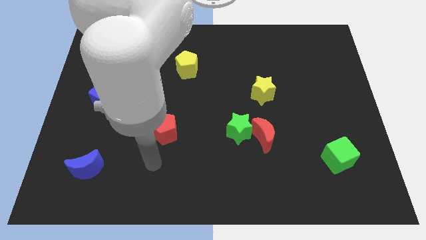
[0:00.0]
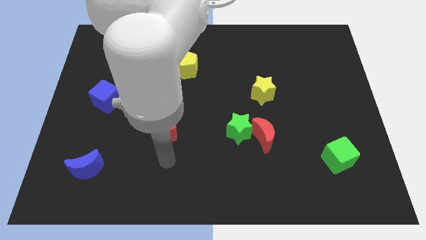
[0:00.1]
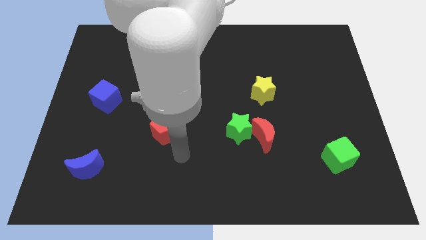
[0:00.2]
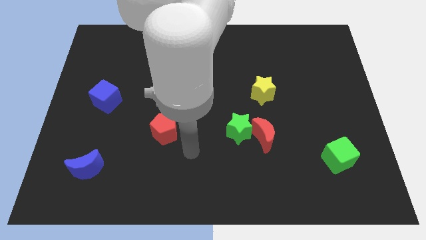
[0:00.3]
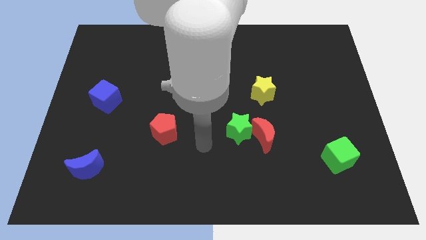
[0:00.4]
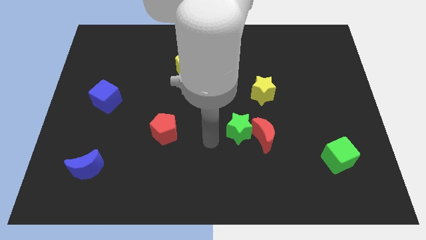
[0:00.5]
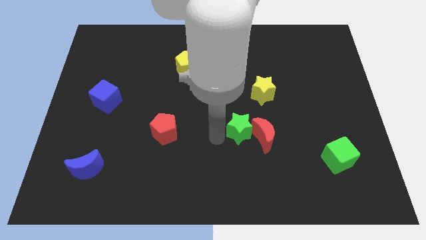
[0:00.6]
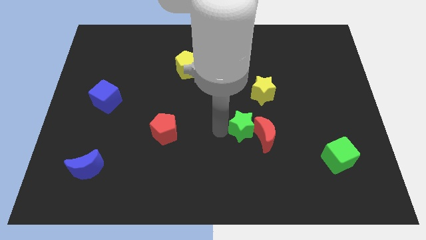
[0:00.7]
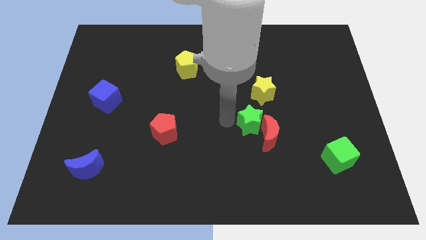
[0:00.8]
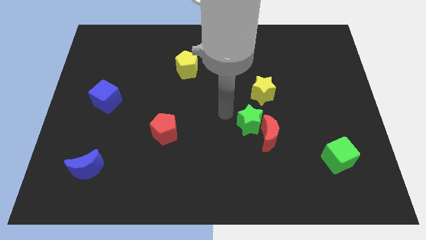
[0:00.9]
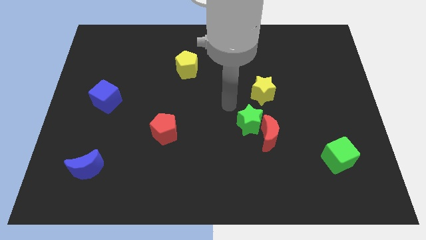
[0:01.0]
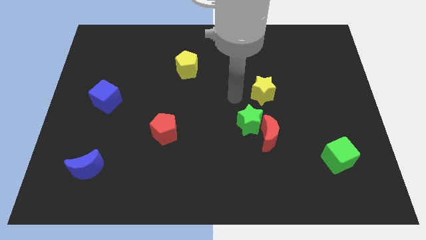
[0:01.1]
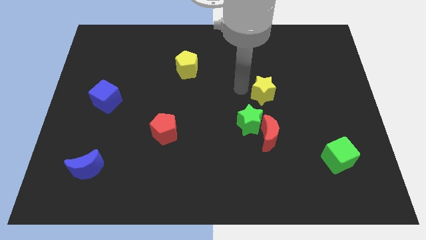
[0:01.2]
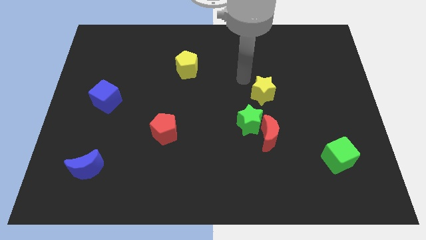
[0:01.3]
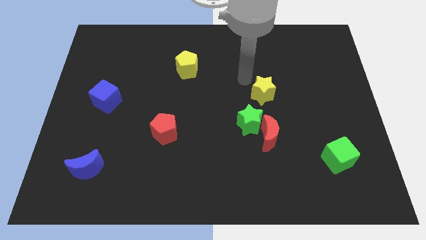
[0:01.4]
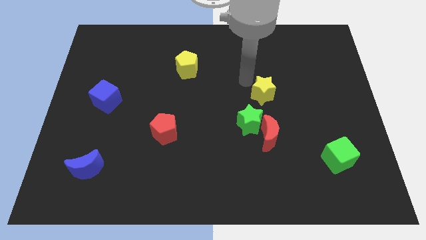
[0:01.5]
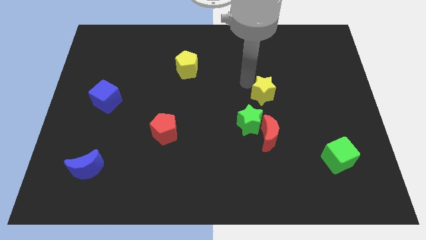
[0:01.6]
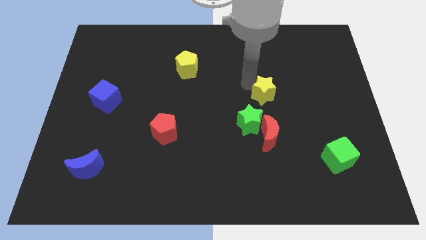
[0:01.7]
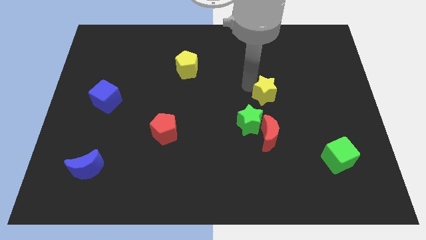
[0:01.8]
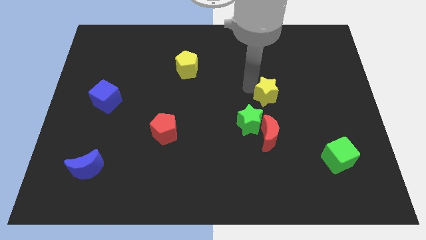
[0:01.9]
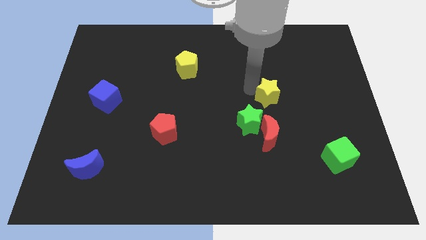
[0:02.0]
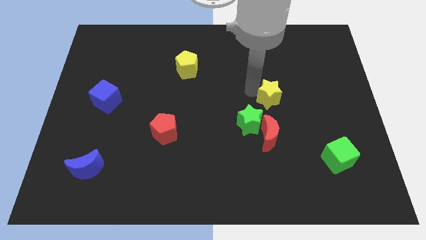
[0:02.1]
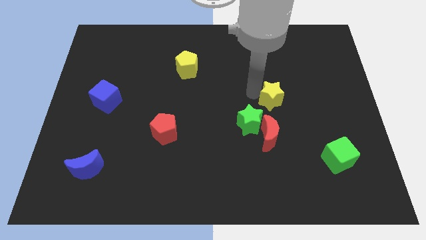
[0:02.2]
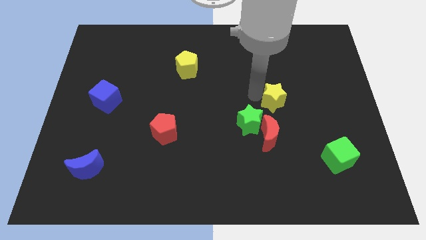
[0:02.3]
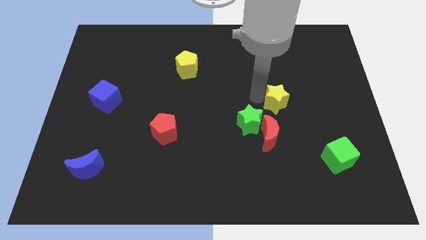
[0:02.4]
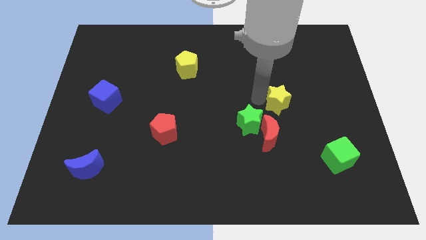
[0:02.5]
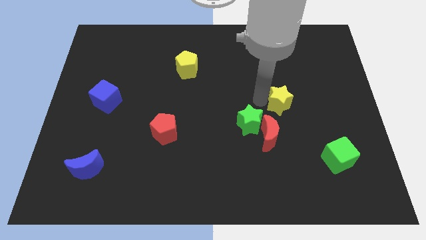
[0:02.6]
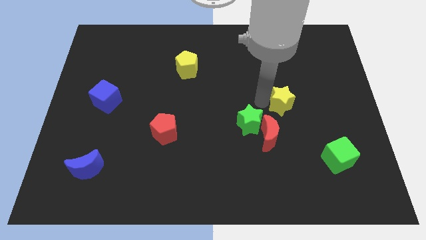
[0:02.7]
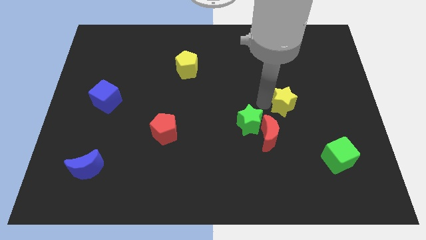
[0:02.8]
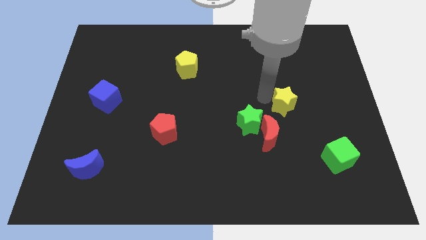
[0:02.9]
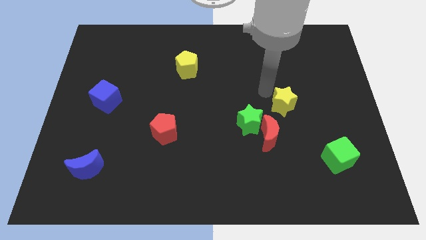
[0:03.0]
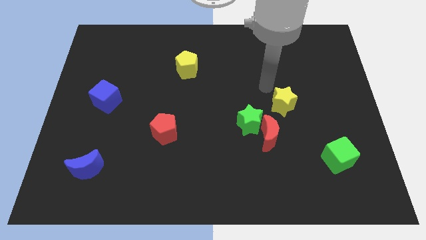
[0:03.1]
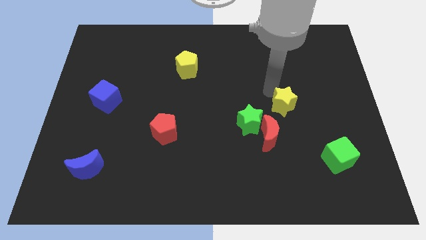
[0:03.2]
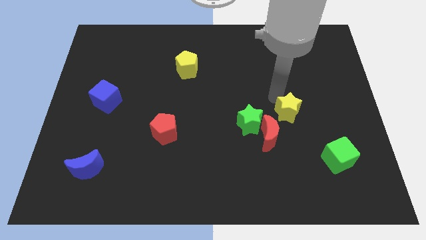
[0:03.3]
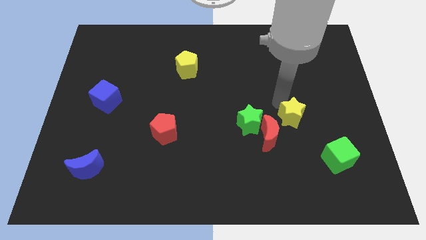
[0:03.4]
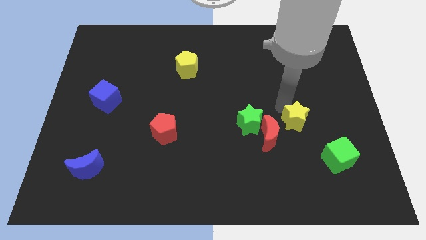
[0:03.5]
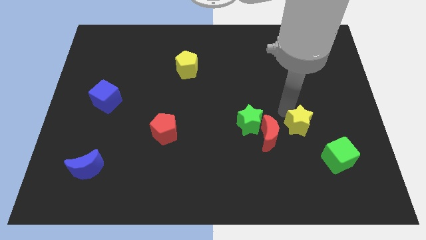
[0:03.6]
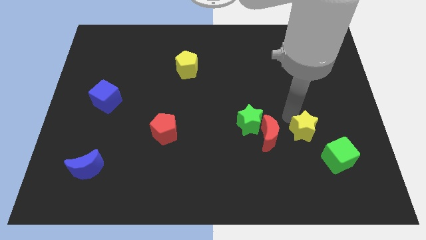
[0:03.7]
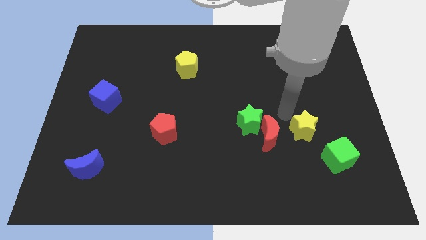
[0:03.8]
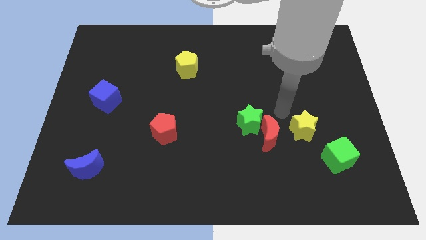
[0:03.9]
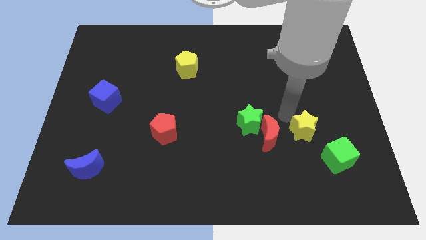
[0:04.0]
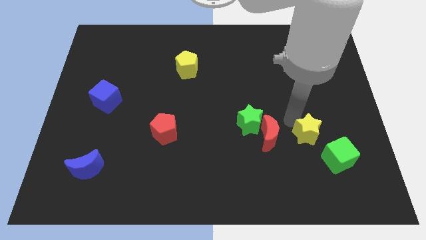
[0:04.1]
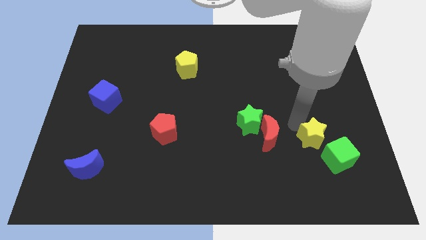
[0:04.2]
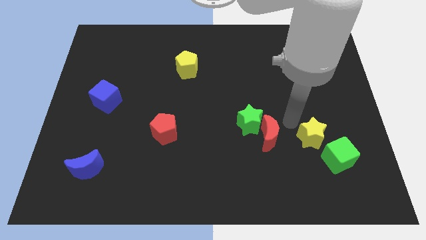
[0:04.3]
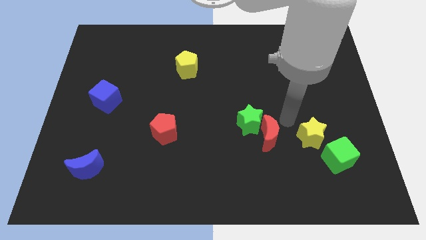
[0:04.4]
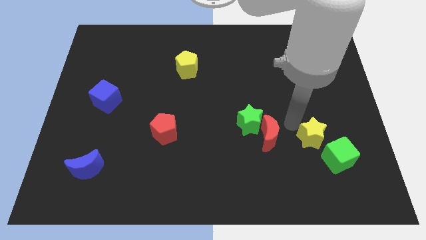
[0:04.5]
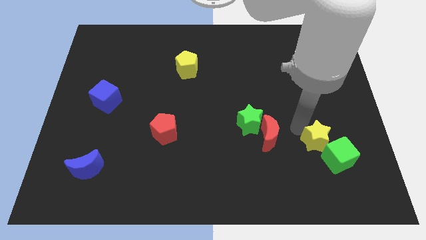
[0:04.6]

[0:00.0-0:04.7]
push the yellow star close to the green cube

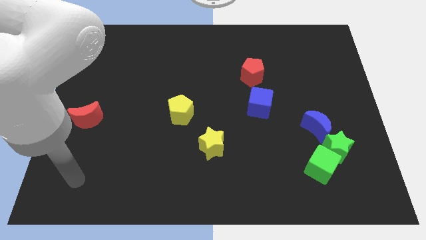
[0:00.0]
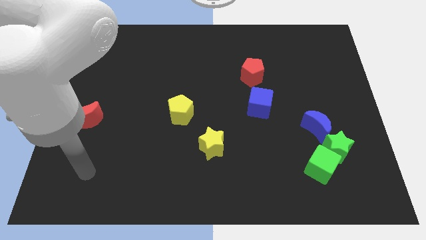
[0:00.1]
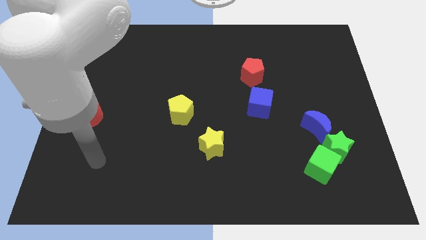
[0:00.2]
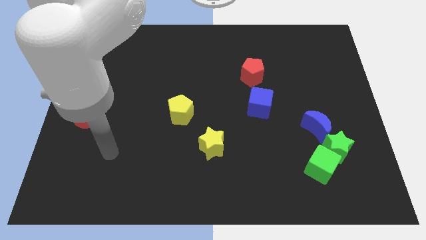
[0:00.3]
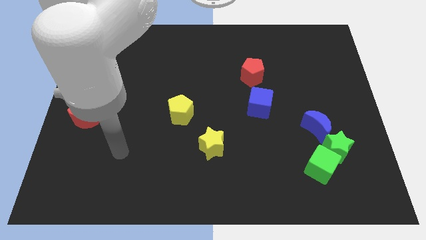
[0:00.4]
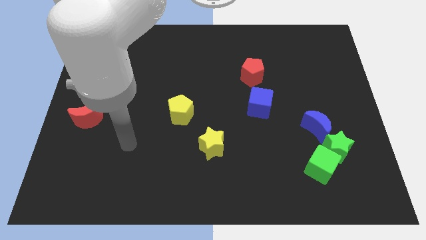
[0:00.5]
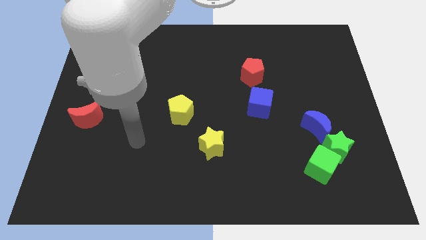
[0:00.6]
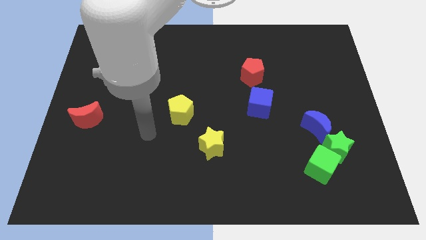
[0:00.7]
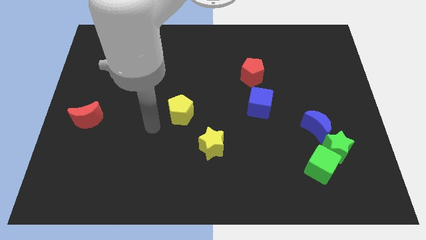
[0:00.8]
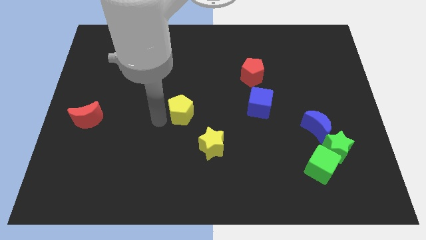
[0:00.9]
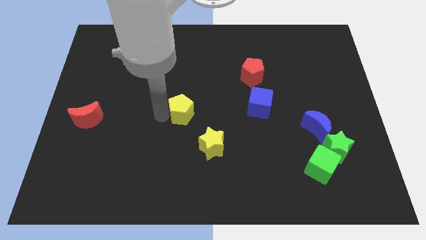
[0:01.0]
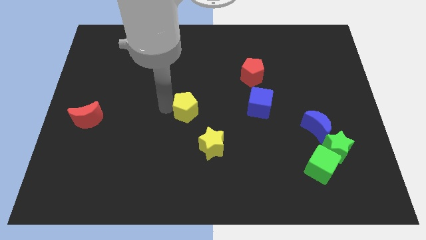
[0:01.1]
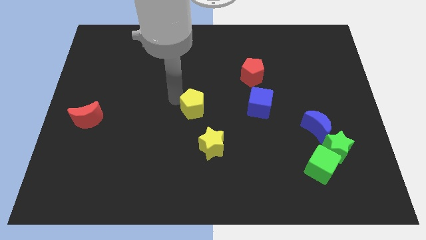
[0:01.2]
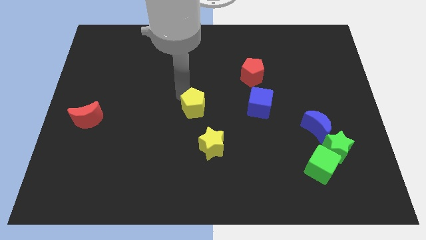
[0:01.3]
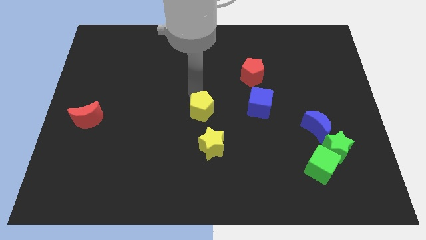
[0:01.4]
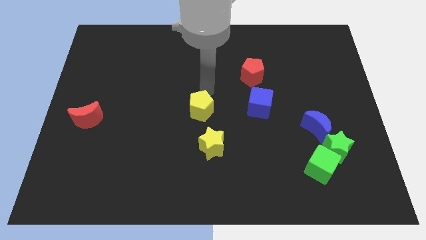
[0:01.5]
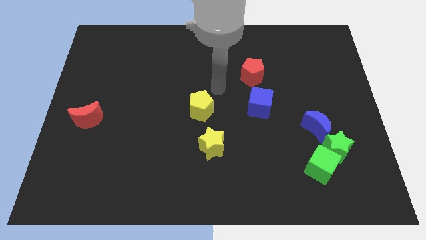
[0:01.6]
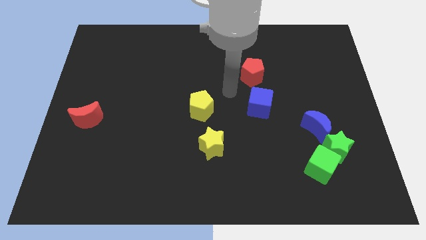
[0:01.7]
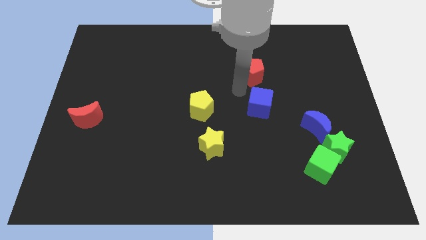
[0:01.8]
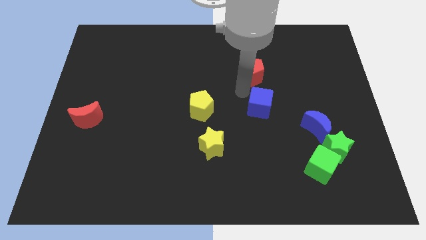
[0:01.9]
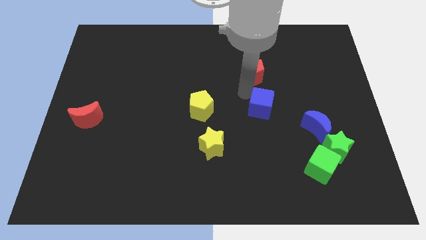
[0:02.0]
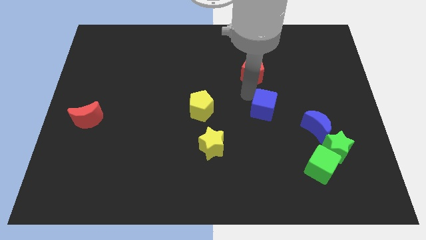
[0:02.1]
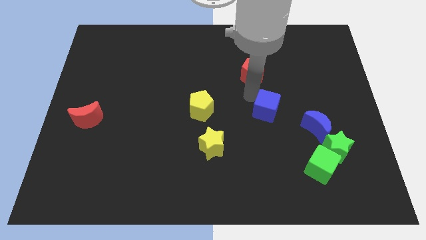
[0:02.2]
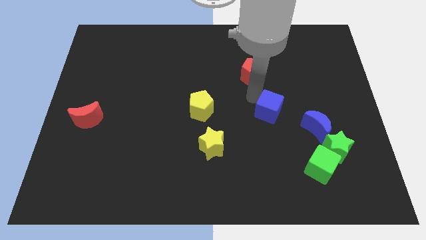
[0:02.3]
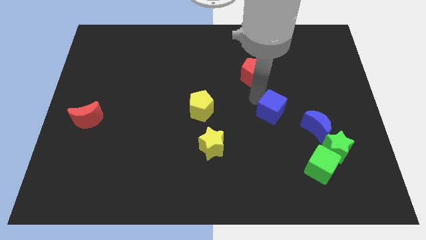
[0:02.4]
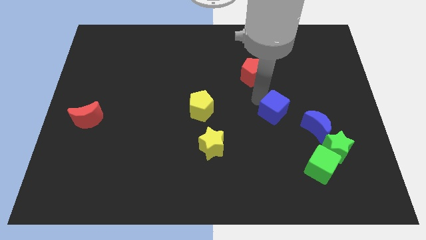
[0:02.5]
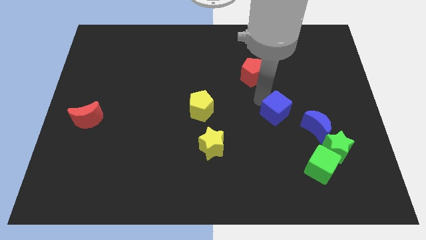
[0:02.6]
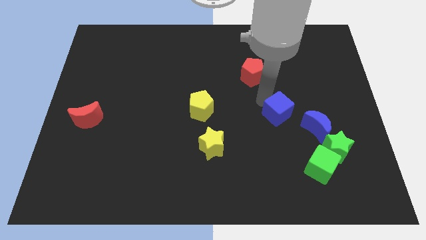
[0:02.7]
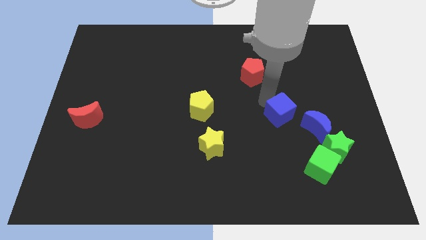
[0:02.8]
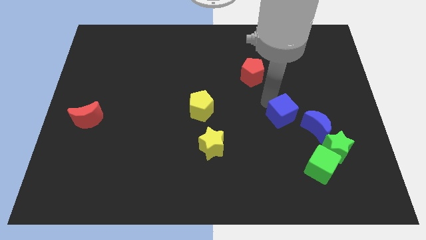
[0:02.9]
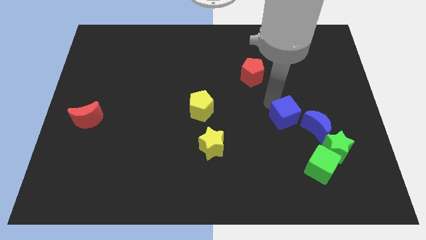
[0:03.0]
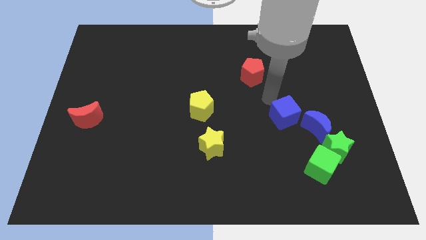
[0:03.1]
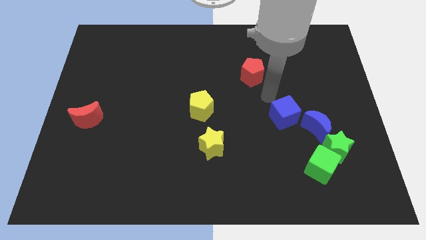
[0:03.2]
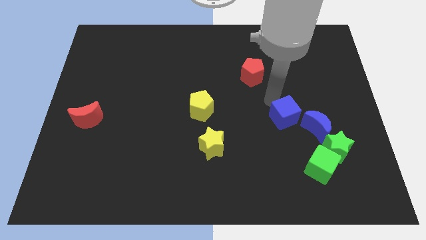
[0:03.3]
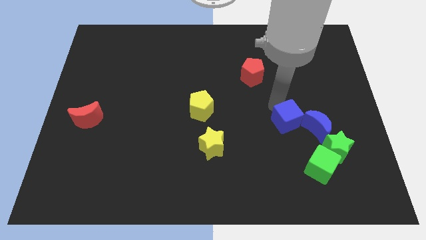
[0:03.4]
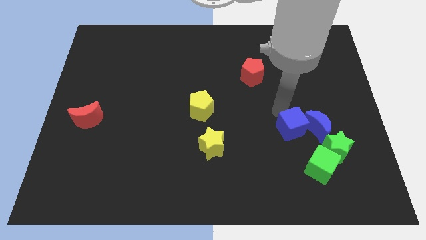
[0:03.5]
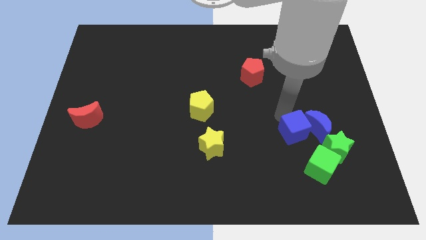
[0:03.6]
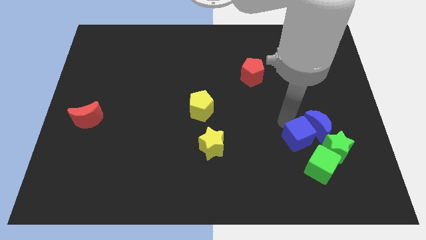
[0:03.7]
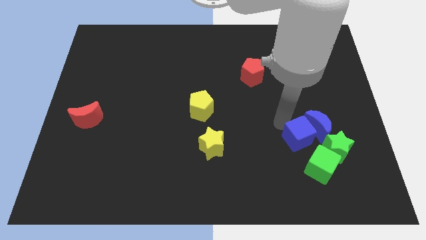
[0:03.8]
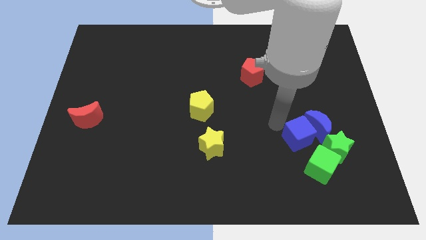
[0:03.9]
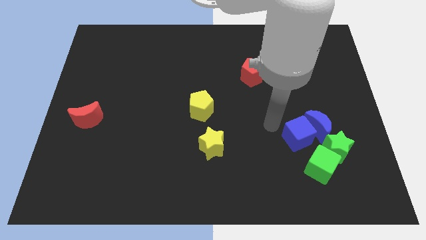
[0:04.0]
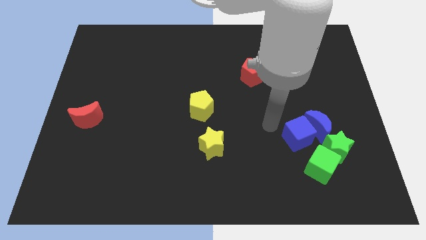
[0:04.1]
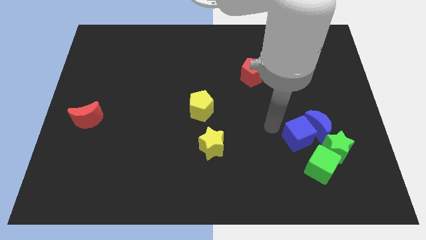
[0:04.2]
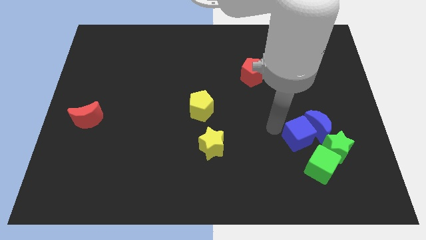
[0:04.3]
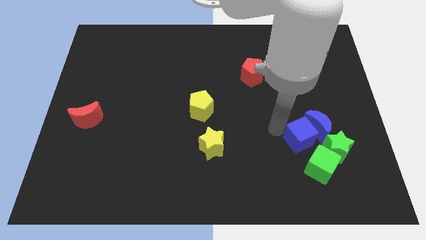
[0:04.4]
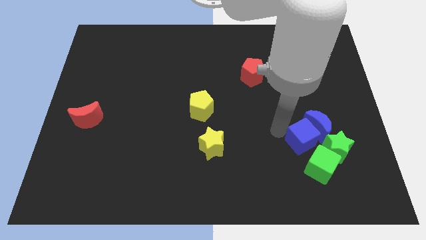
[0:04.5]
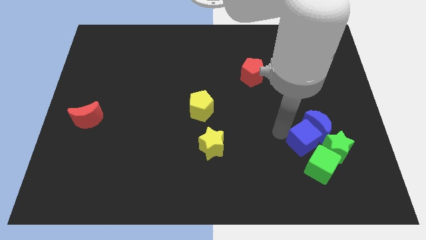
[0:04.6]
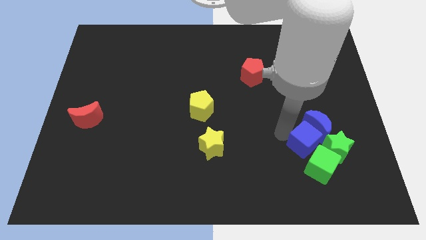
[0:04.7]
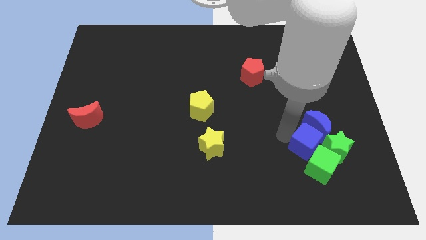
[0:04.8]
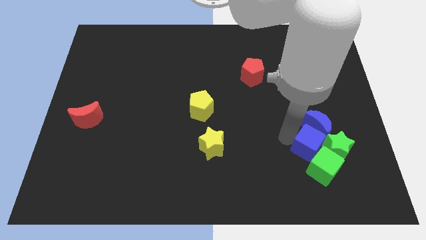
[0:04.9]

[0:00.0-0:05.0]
slide the blue cube towards the green star
